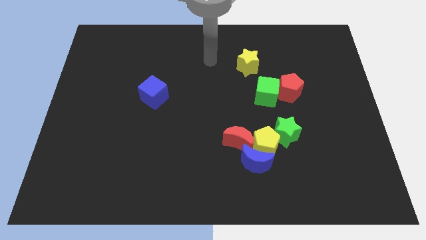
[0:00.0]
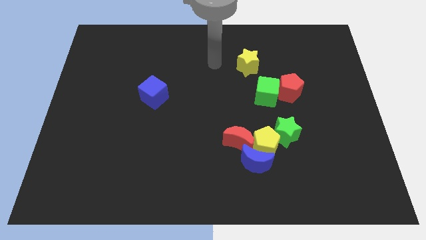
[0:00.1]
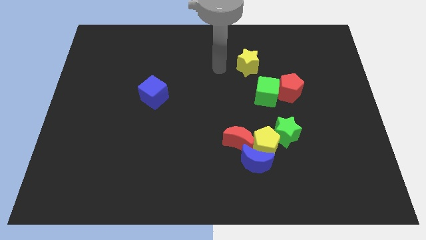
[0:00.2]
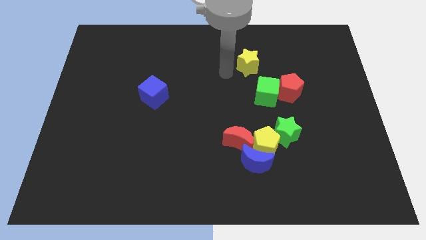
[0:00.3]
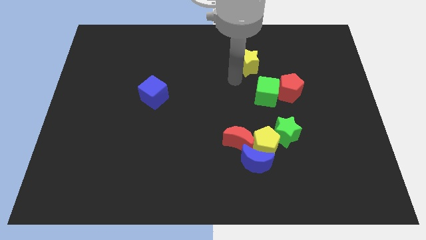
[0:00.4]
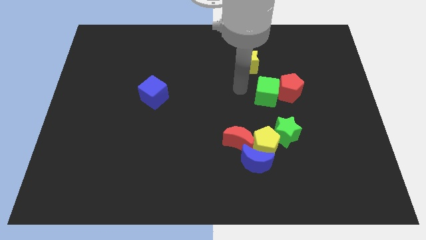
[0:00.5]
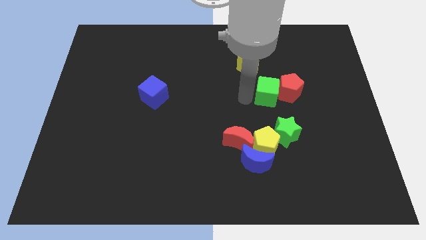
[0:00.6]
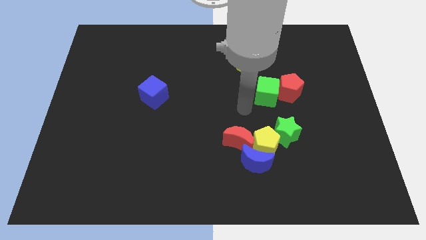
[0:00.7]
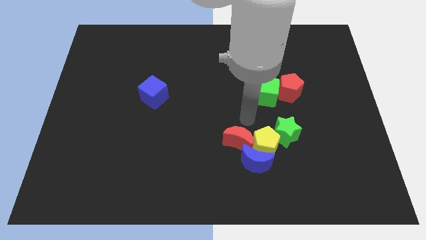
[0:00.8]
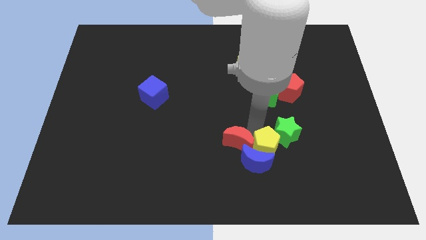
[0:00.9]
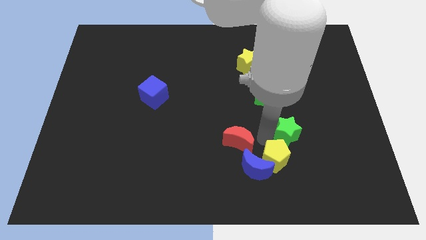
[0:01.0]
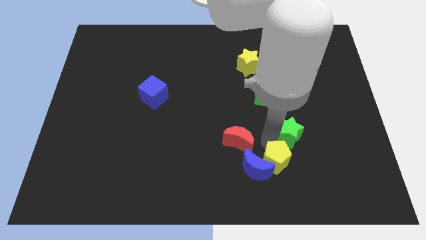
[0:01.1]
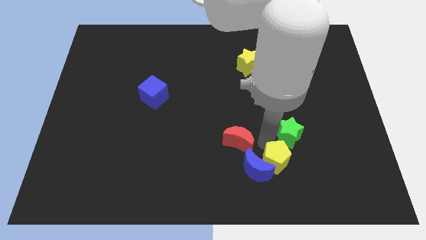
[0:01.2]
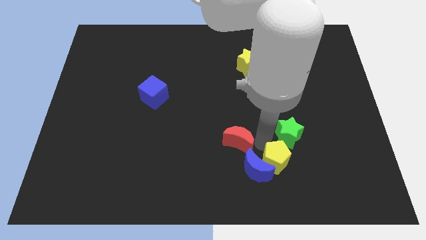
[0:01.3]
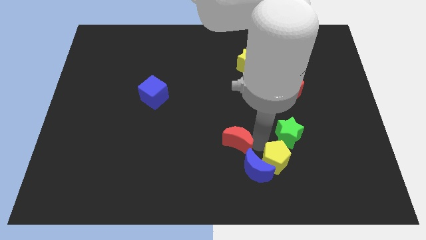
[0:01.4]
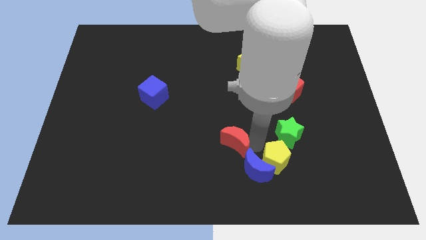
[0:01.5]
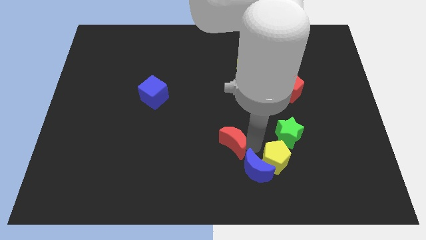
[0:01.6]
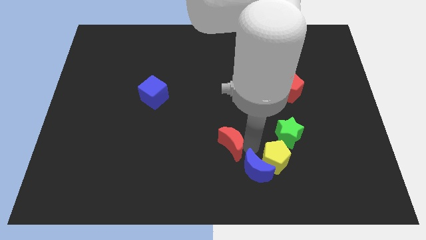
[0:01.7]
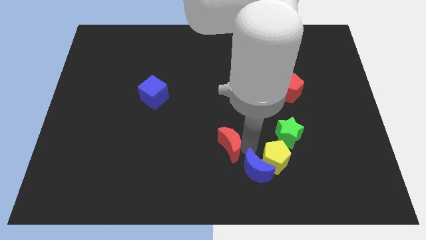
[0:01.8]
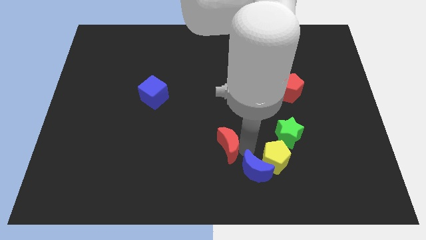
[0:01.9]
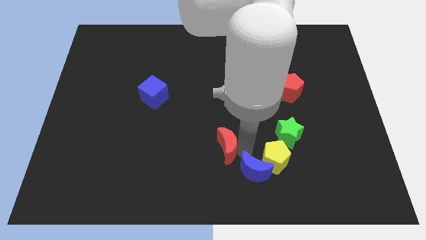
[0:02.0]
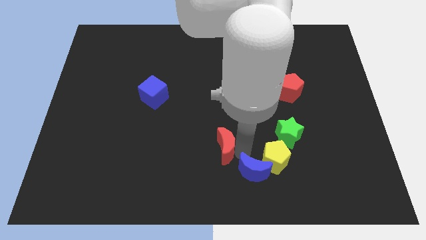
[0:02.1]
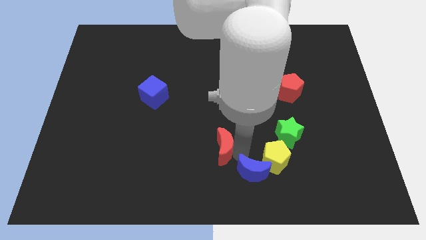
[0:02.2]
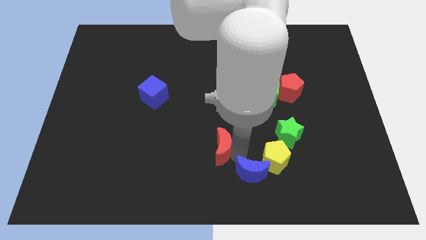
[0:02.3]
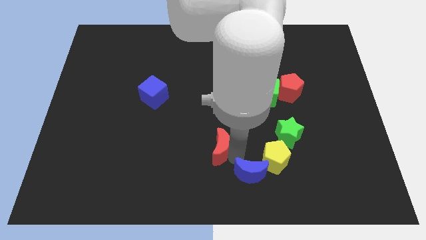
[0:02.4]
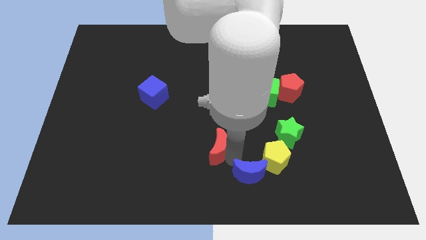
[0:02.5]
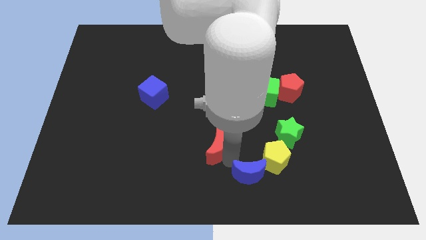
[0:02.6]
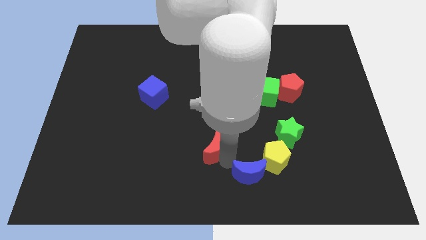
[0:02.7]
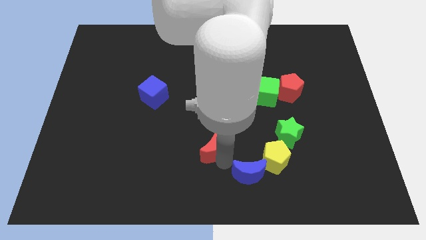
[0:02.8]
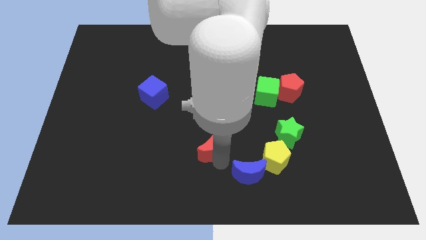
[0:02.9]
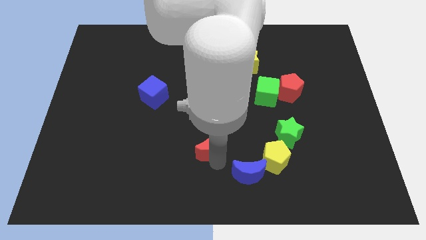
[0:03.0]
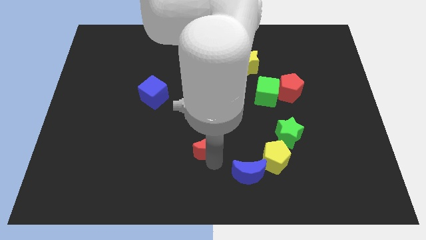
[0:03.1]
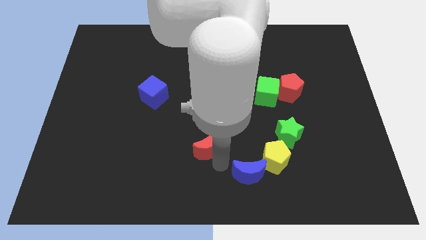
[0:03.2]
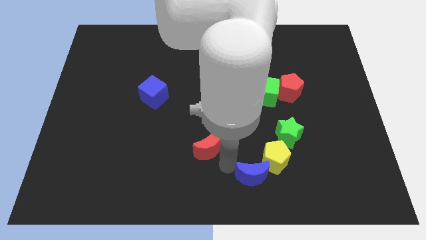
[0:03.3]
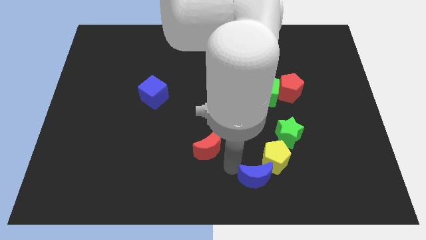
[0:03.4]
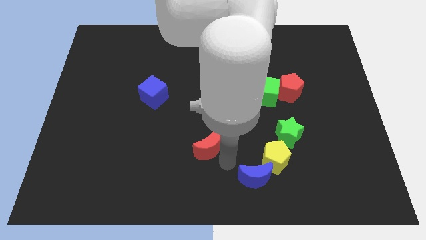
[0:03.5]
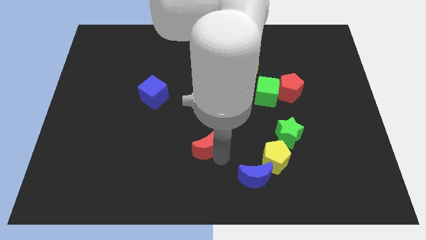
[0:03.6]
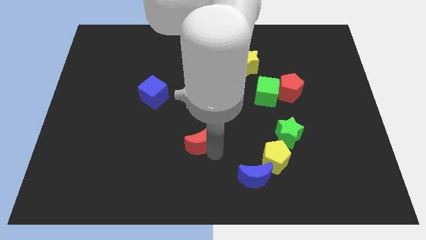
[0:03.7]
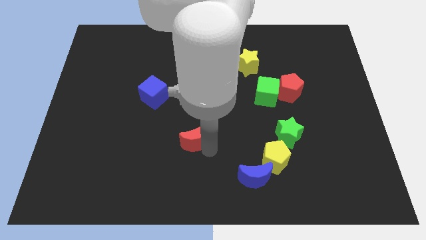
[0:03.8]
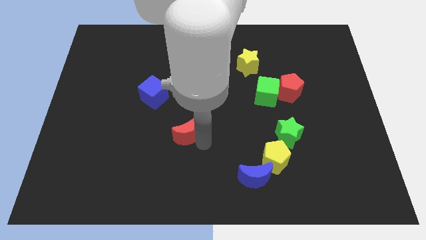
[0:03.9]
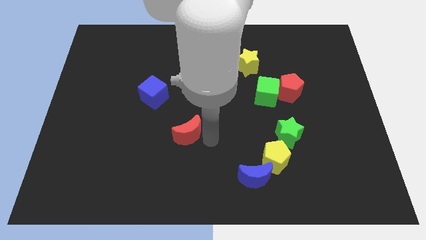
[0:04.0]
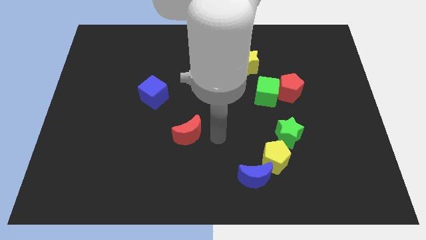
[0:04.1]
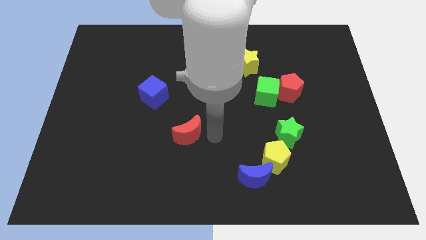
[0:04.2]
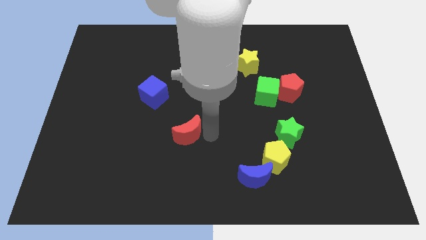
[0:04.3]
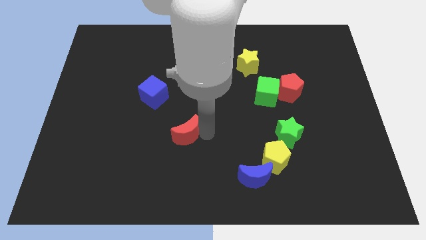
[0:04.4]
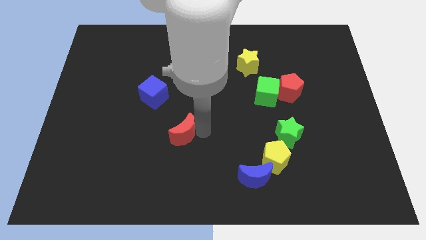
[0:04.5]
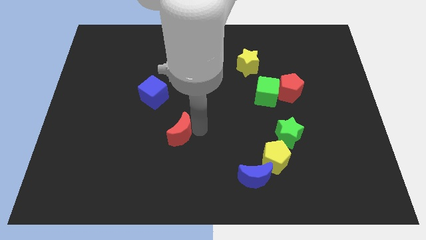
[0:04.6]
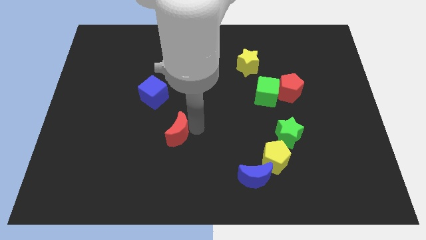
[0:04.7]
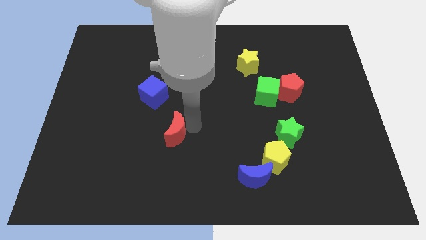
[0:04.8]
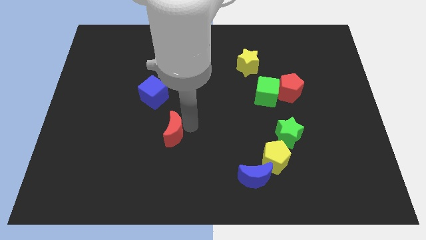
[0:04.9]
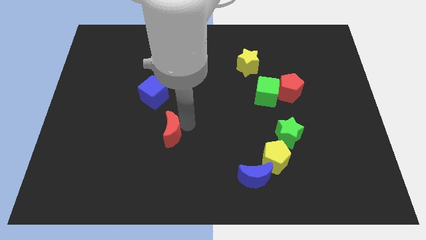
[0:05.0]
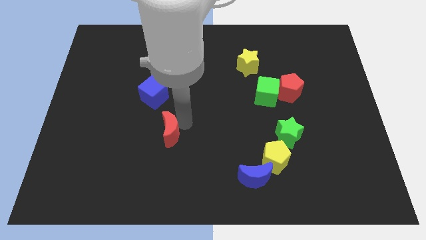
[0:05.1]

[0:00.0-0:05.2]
slide the red moon to the bottom of the blue cube

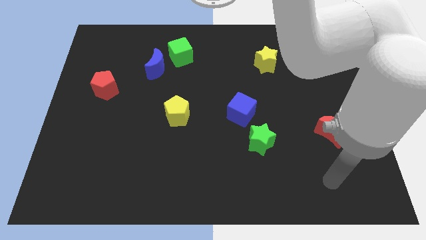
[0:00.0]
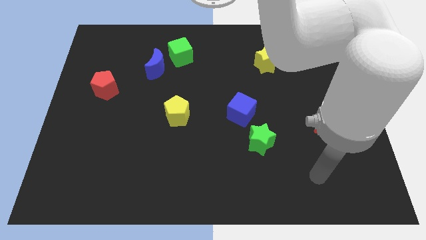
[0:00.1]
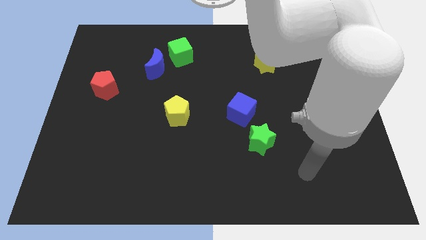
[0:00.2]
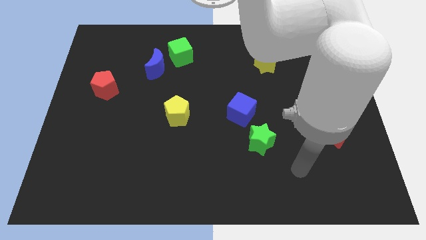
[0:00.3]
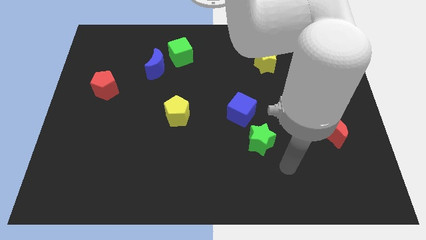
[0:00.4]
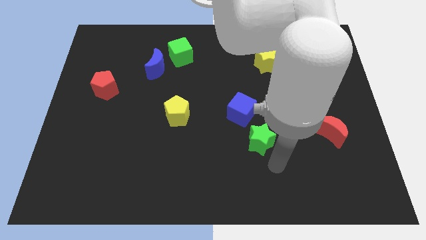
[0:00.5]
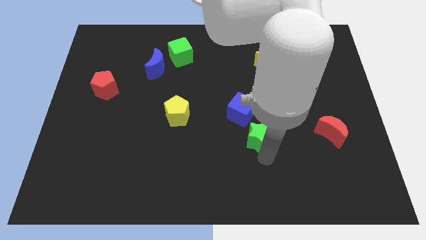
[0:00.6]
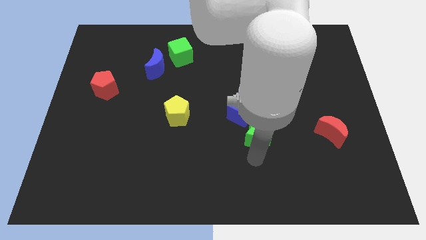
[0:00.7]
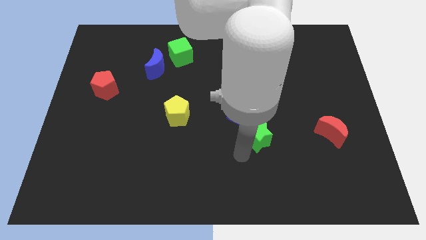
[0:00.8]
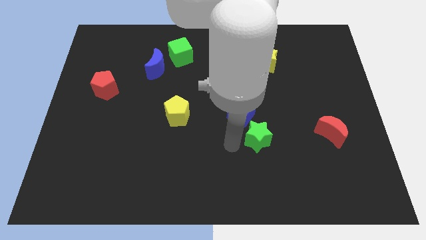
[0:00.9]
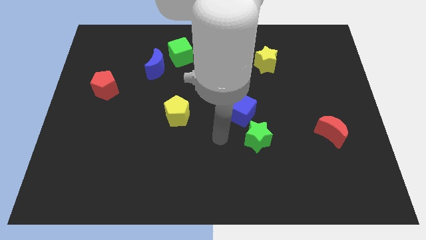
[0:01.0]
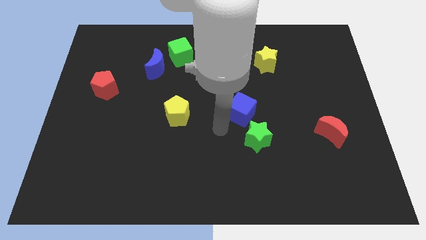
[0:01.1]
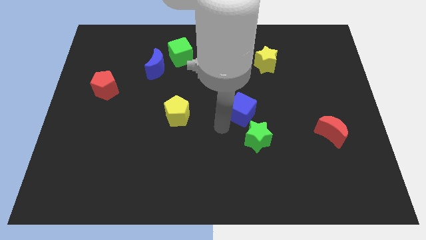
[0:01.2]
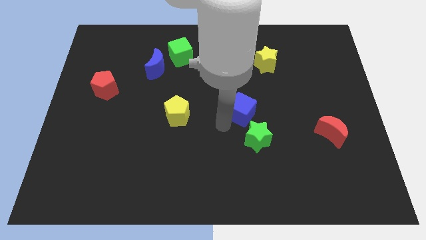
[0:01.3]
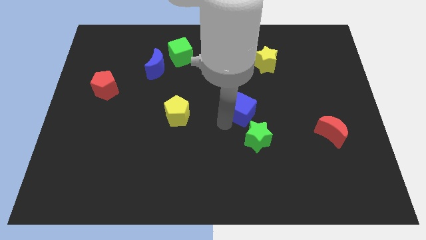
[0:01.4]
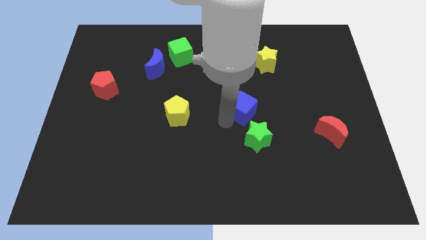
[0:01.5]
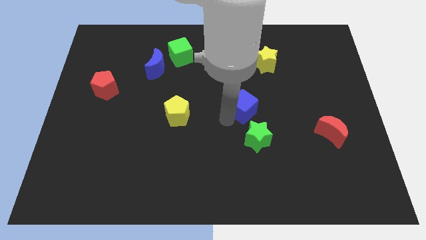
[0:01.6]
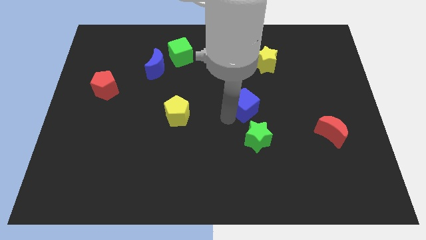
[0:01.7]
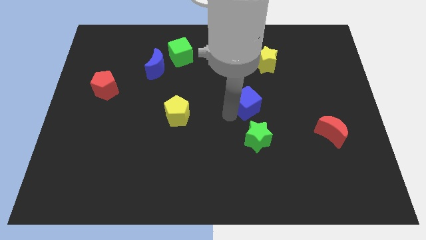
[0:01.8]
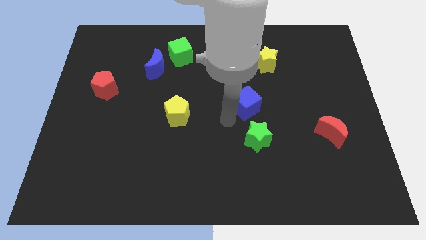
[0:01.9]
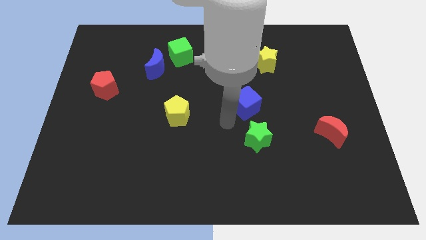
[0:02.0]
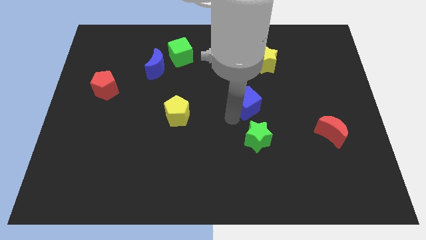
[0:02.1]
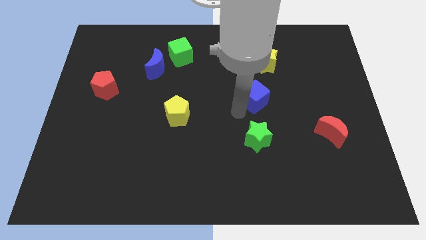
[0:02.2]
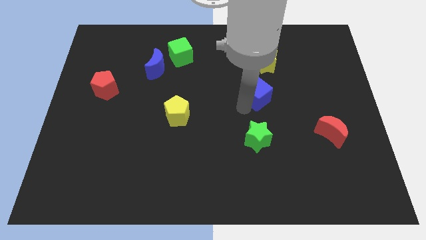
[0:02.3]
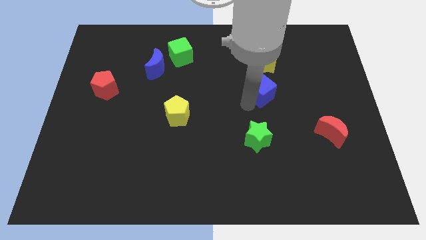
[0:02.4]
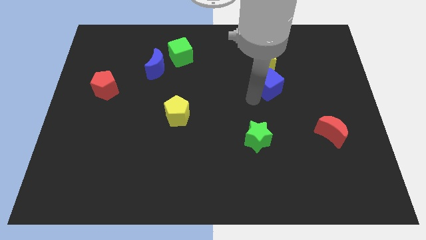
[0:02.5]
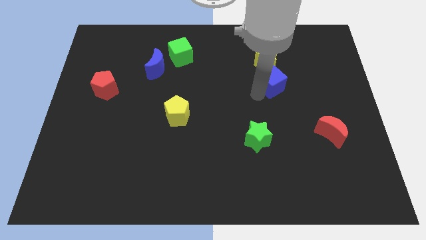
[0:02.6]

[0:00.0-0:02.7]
slide the blue cube diagonally down and to the right of the yellow star
